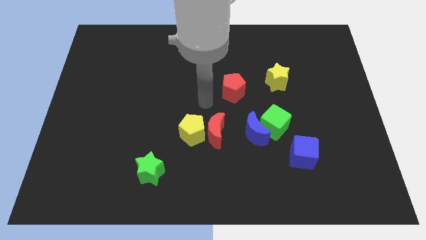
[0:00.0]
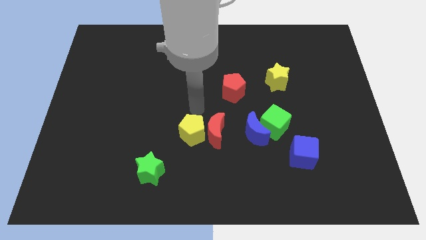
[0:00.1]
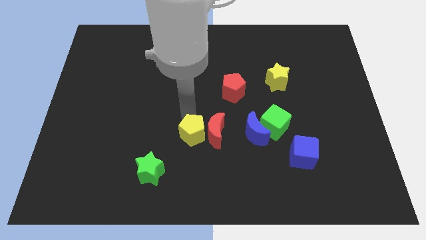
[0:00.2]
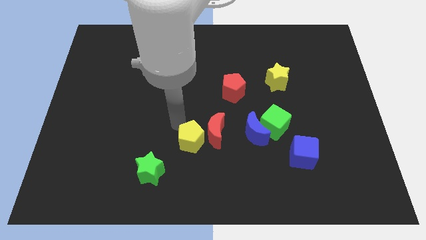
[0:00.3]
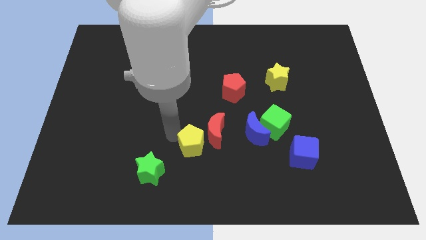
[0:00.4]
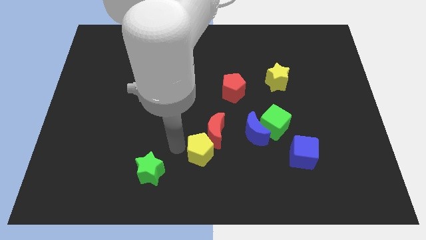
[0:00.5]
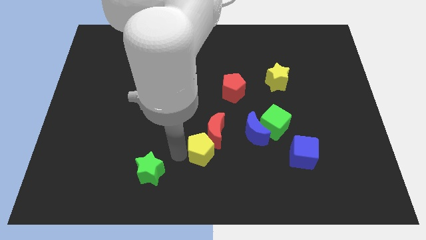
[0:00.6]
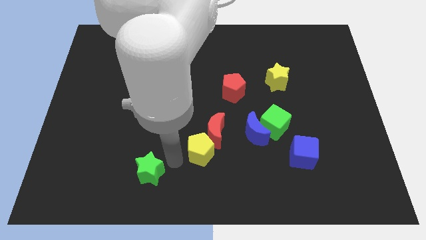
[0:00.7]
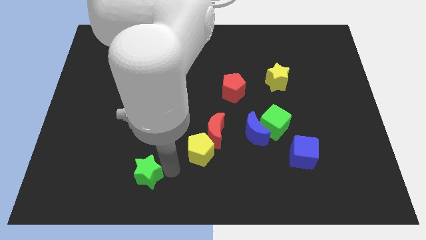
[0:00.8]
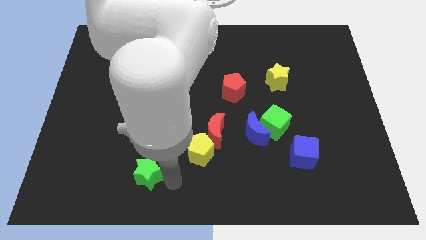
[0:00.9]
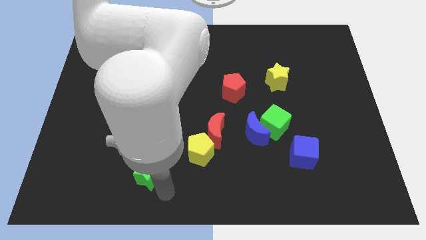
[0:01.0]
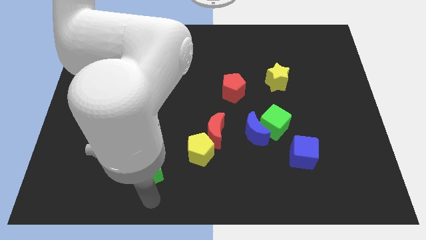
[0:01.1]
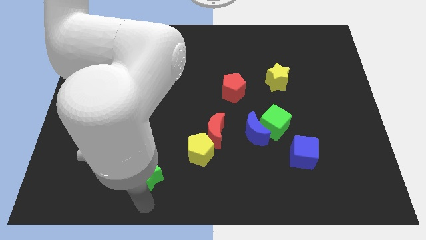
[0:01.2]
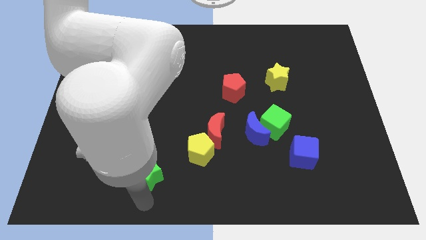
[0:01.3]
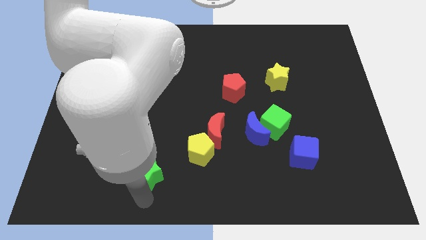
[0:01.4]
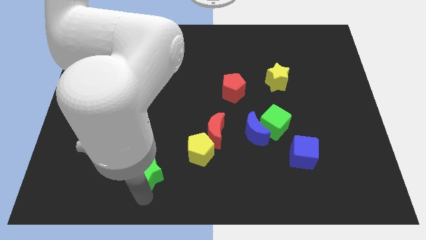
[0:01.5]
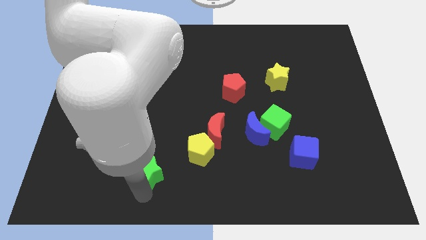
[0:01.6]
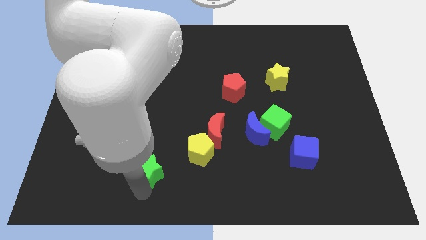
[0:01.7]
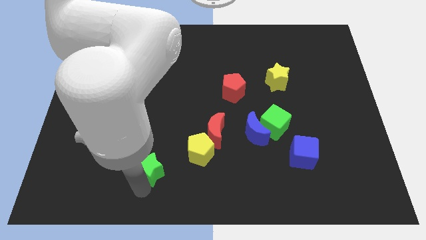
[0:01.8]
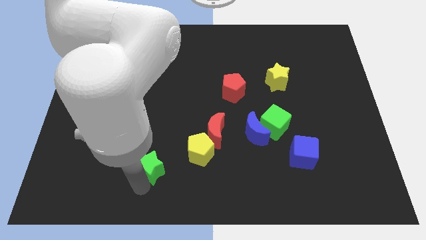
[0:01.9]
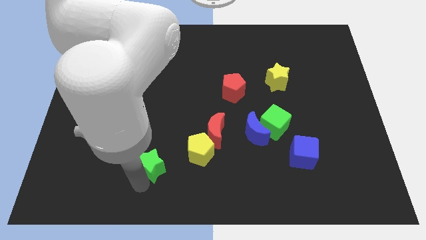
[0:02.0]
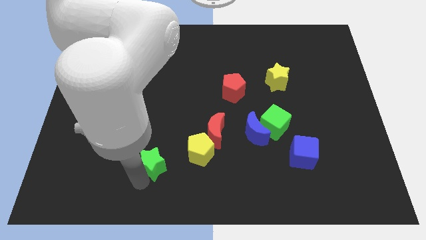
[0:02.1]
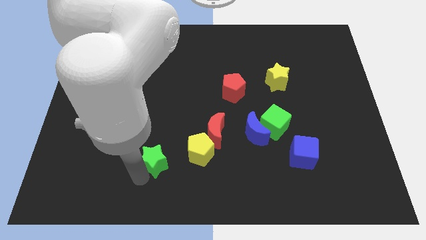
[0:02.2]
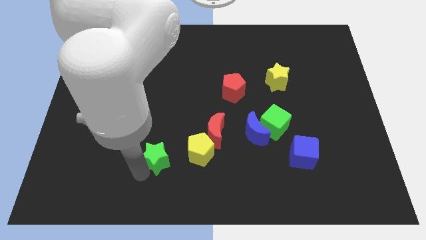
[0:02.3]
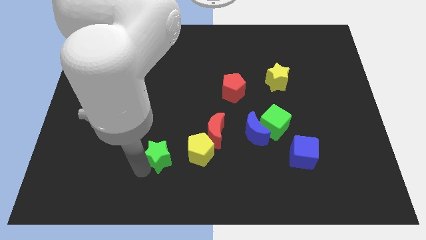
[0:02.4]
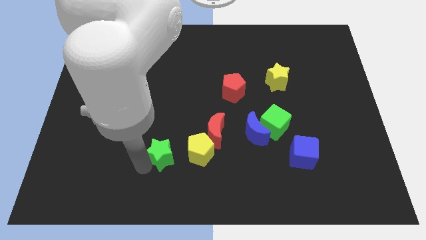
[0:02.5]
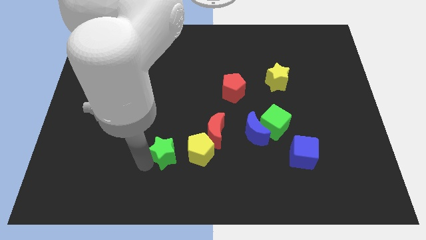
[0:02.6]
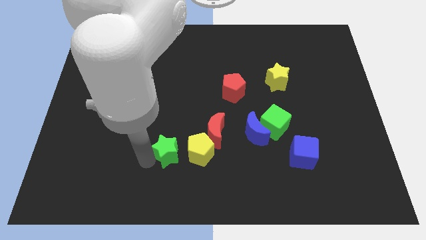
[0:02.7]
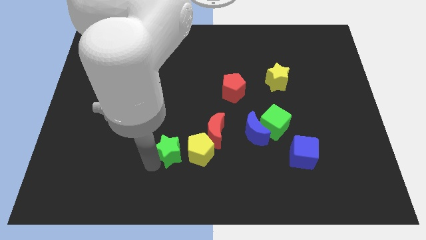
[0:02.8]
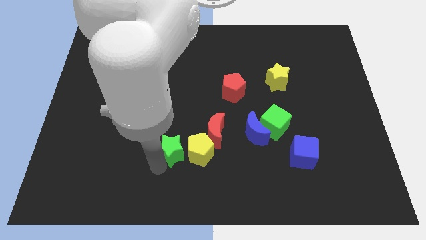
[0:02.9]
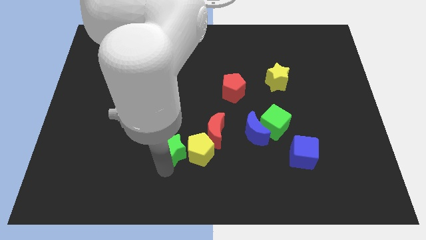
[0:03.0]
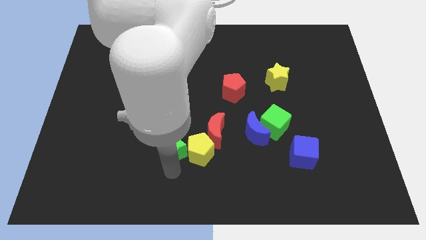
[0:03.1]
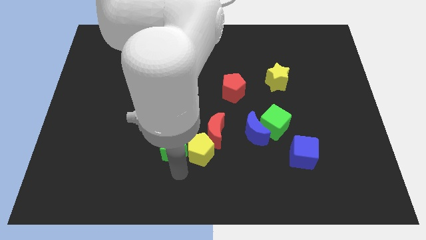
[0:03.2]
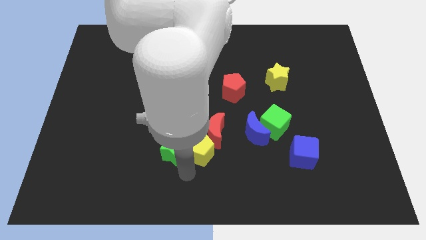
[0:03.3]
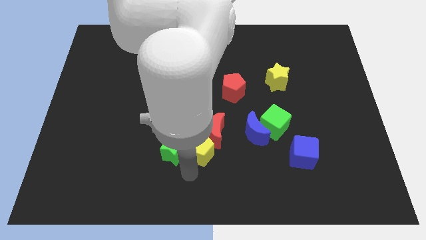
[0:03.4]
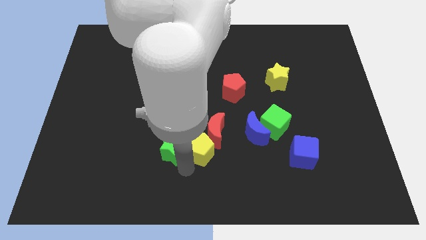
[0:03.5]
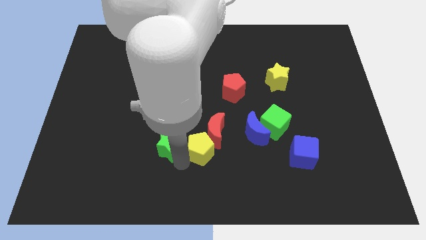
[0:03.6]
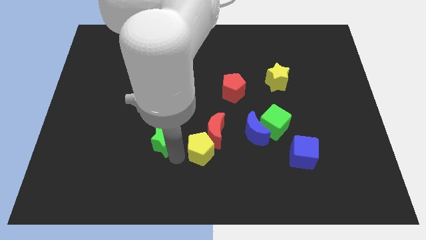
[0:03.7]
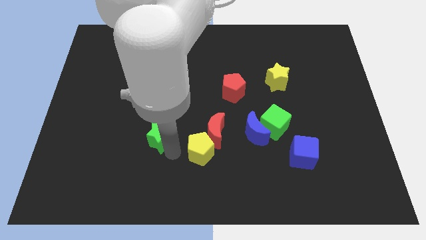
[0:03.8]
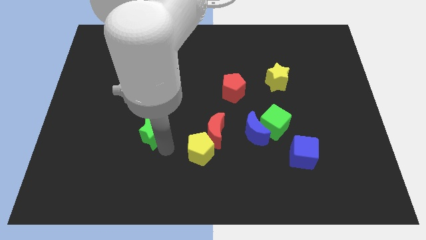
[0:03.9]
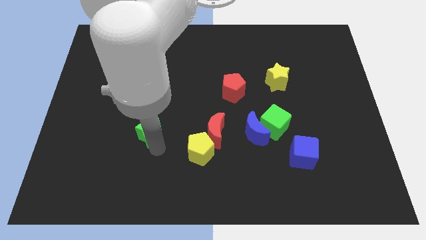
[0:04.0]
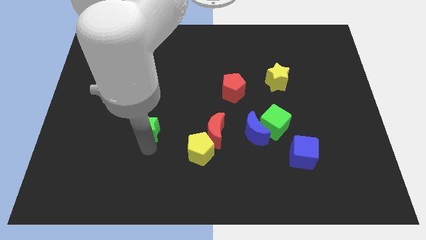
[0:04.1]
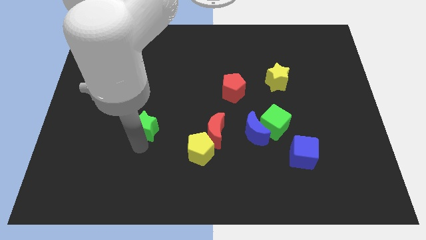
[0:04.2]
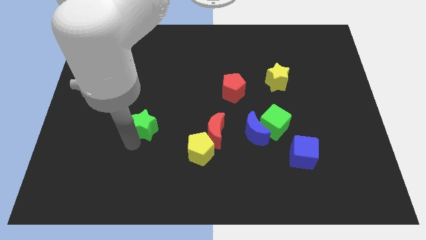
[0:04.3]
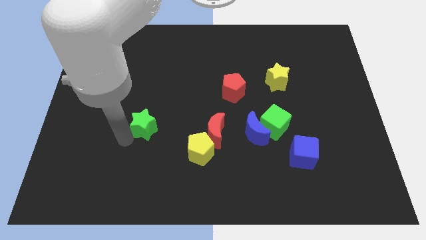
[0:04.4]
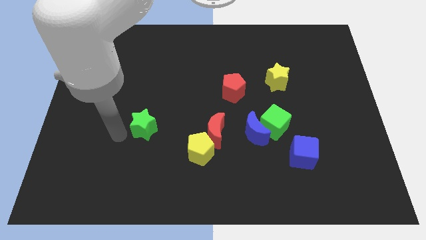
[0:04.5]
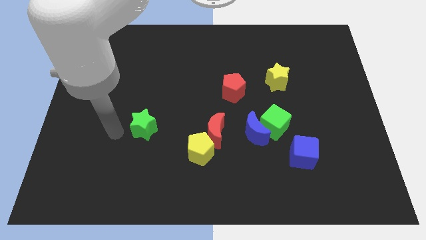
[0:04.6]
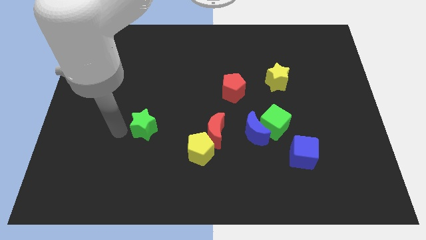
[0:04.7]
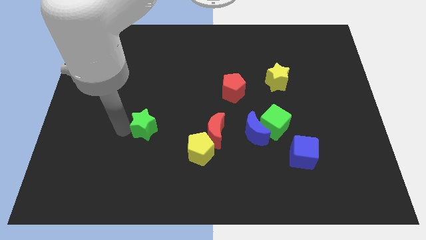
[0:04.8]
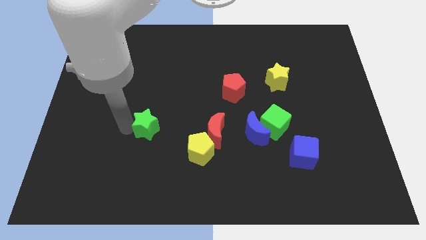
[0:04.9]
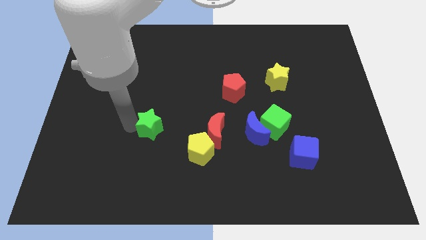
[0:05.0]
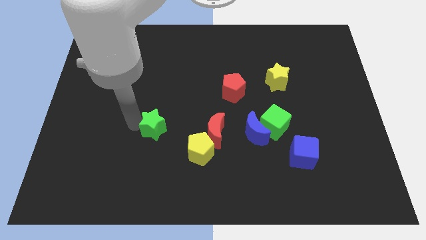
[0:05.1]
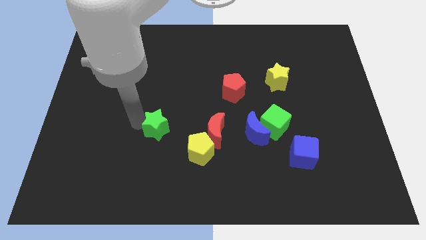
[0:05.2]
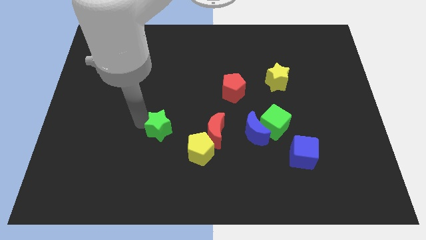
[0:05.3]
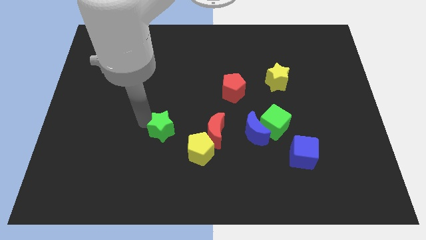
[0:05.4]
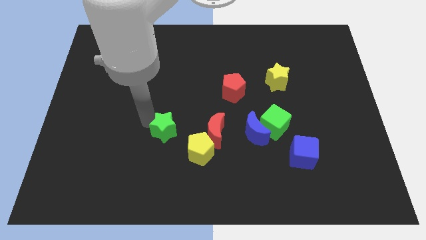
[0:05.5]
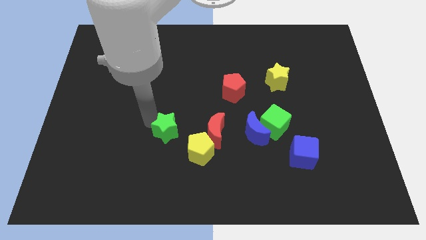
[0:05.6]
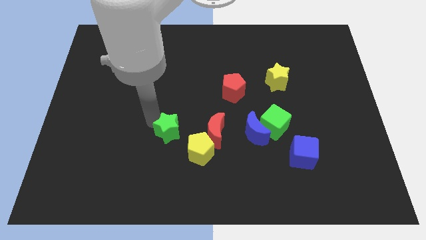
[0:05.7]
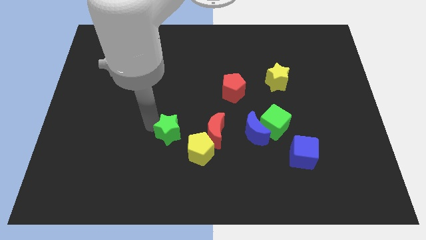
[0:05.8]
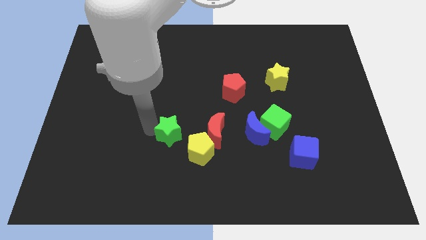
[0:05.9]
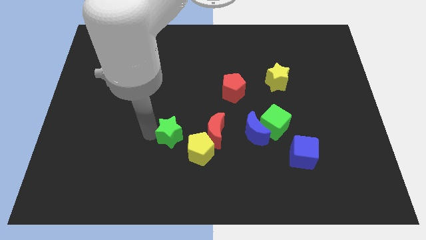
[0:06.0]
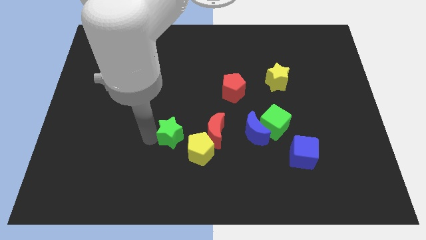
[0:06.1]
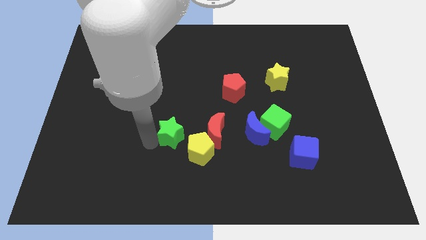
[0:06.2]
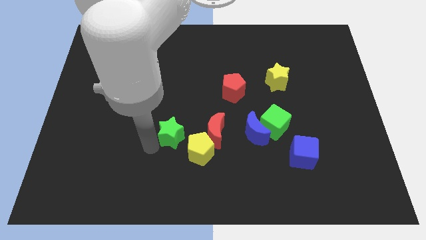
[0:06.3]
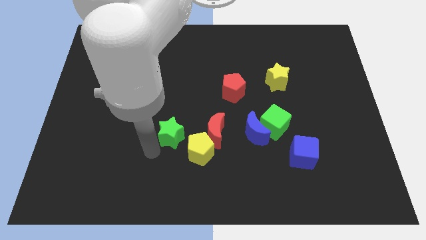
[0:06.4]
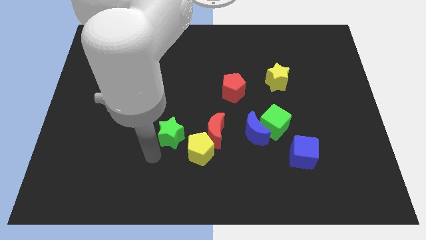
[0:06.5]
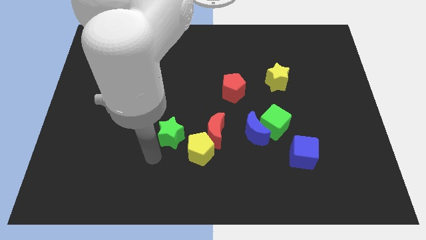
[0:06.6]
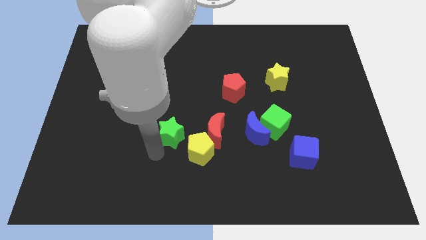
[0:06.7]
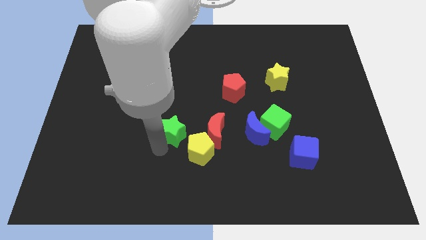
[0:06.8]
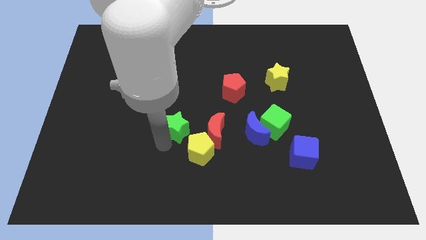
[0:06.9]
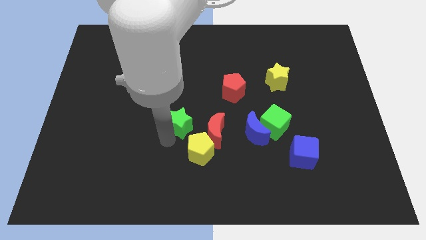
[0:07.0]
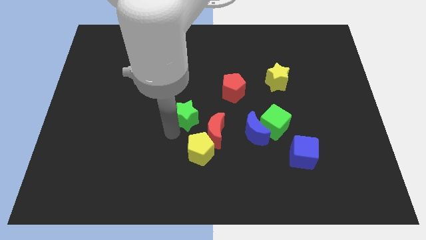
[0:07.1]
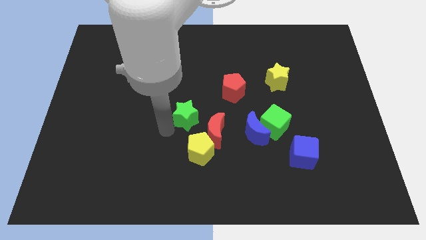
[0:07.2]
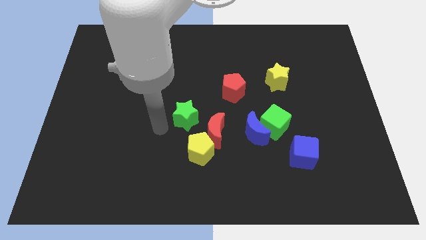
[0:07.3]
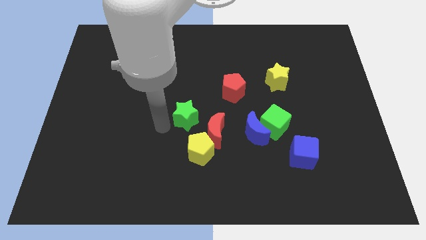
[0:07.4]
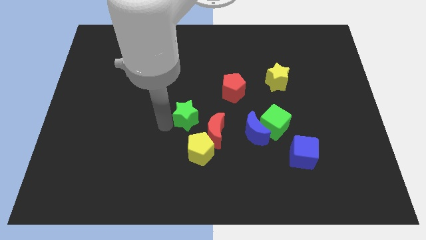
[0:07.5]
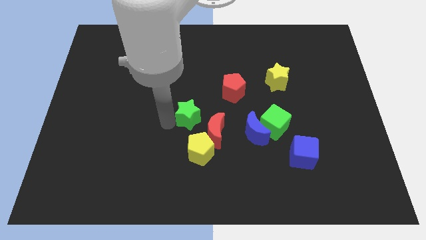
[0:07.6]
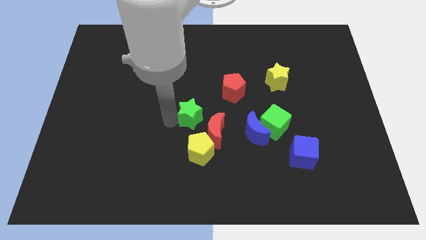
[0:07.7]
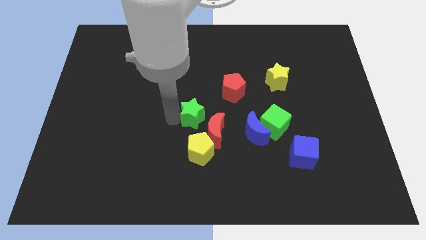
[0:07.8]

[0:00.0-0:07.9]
put the green star to the bottom left side of the red pentagon
